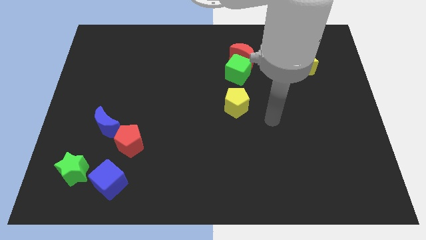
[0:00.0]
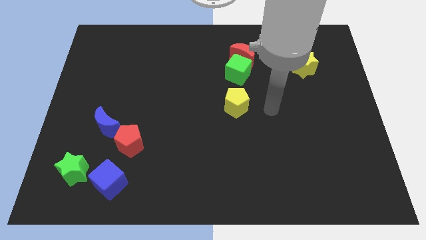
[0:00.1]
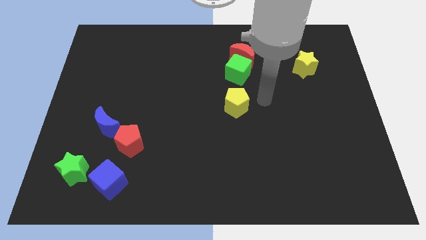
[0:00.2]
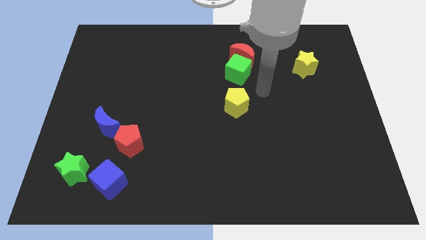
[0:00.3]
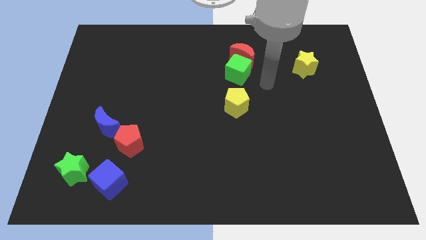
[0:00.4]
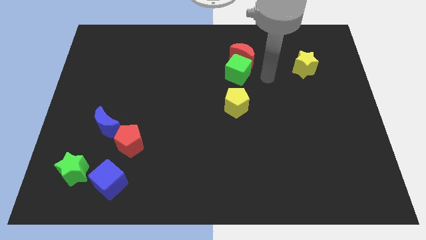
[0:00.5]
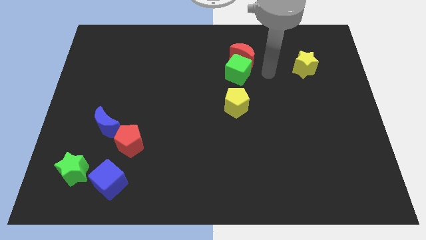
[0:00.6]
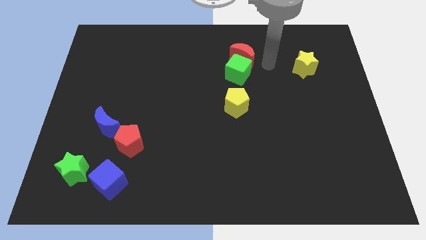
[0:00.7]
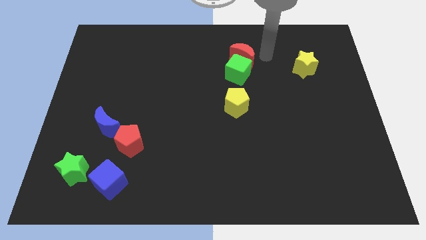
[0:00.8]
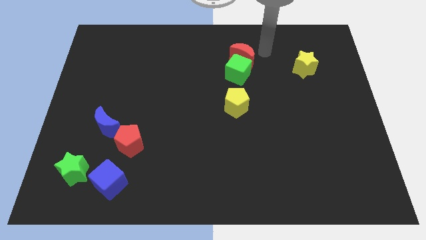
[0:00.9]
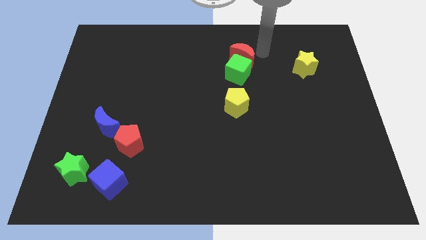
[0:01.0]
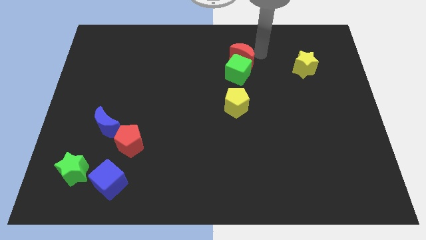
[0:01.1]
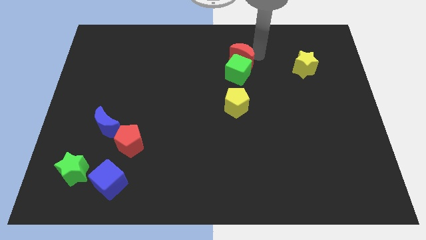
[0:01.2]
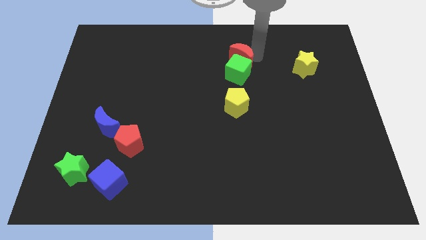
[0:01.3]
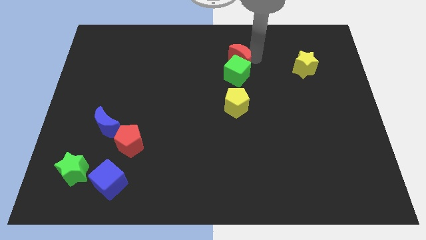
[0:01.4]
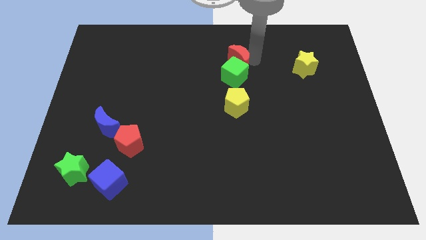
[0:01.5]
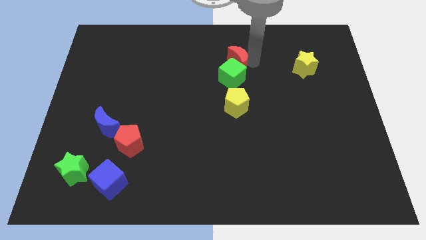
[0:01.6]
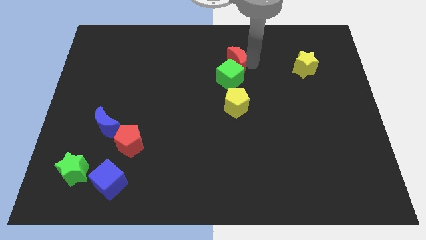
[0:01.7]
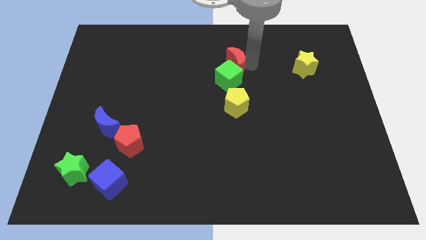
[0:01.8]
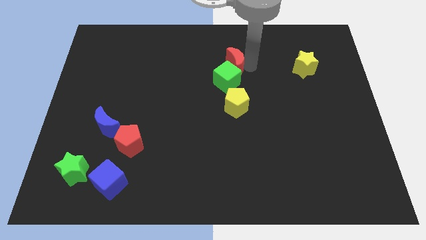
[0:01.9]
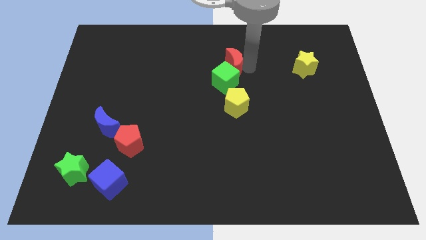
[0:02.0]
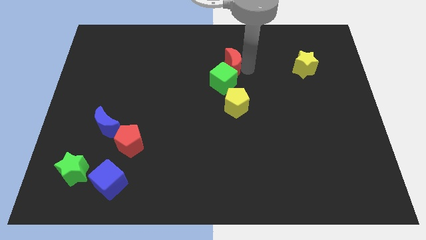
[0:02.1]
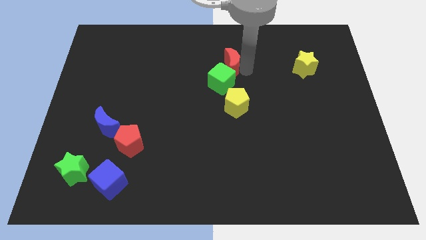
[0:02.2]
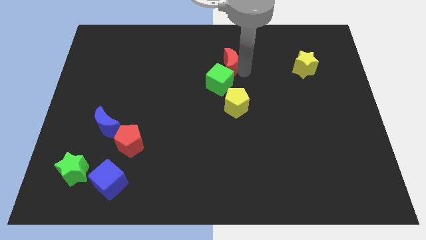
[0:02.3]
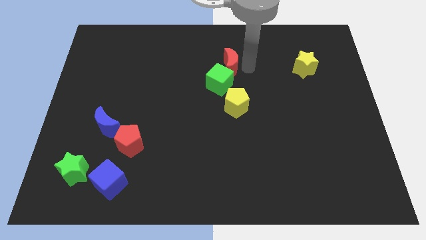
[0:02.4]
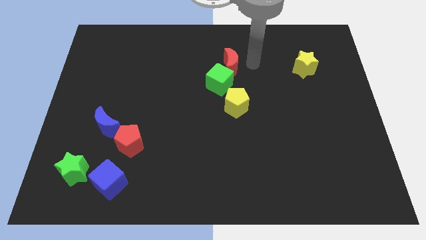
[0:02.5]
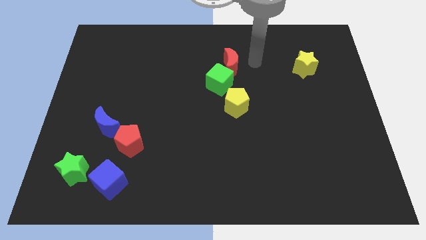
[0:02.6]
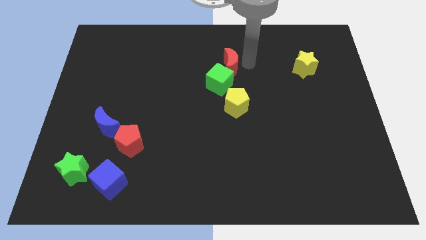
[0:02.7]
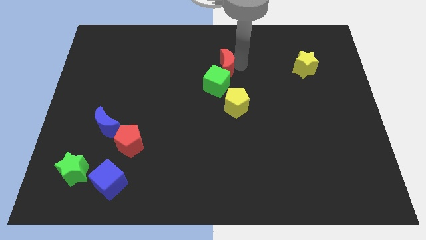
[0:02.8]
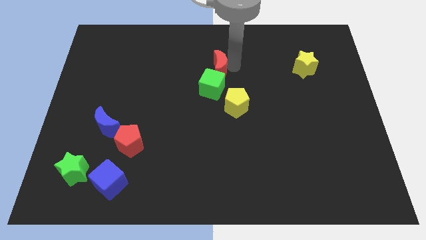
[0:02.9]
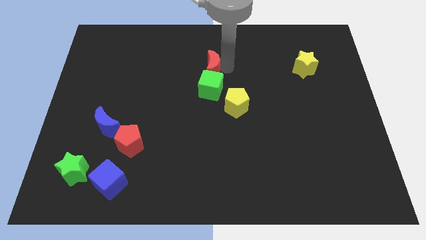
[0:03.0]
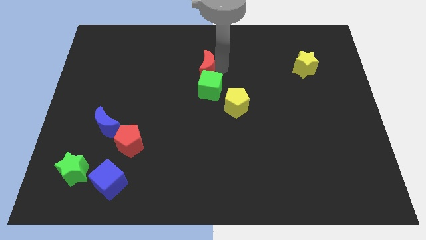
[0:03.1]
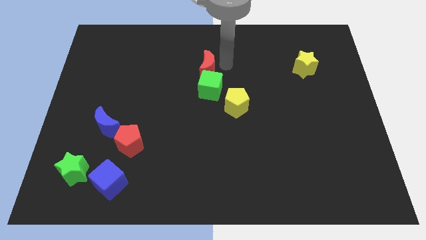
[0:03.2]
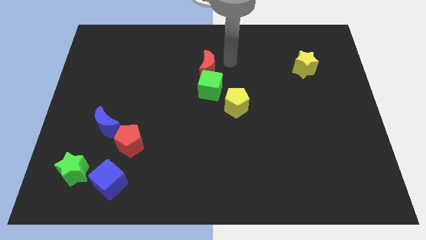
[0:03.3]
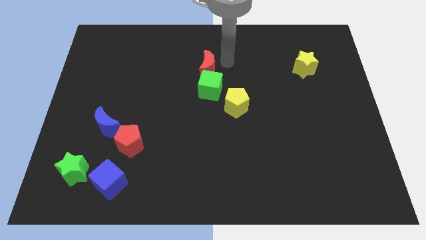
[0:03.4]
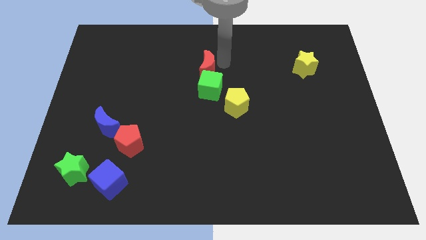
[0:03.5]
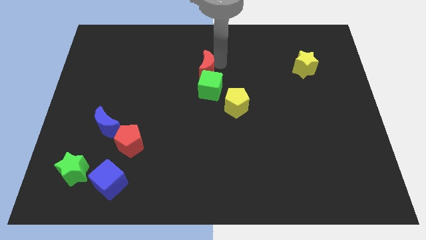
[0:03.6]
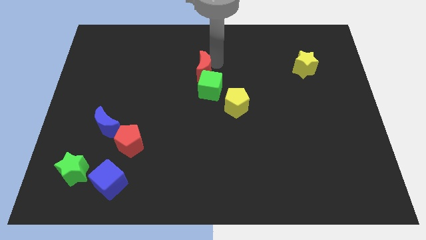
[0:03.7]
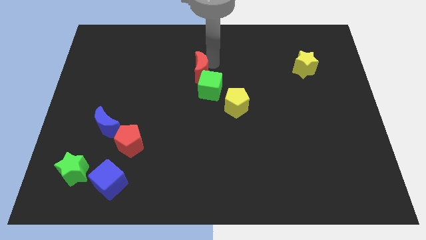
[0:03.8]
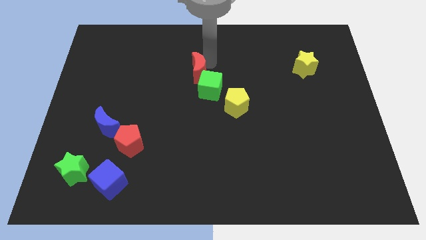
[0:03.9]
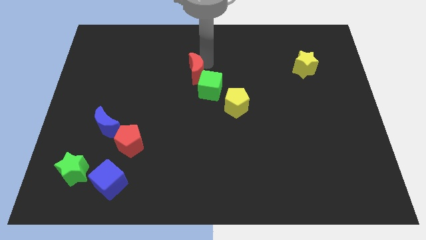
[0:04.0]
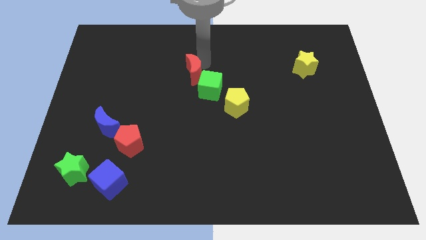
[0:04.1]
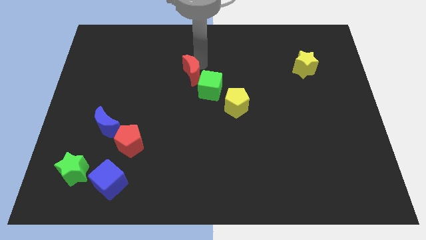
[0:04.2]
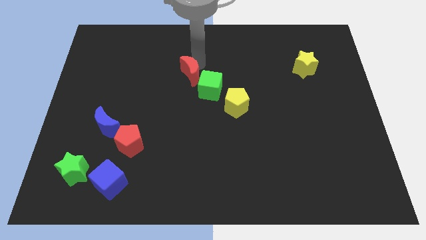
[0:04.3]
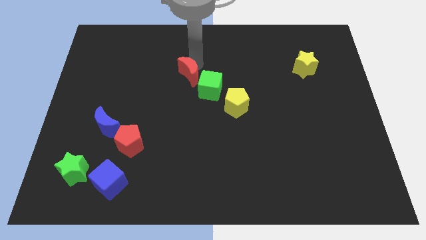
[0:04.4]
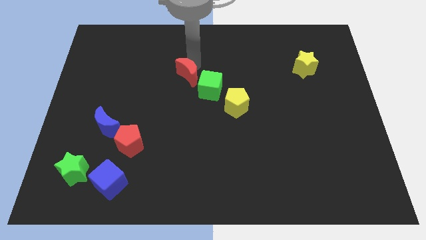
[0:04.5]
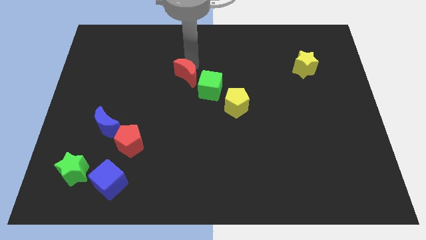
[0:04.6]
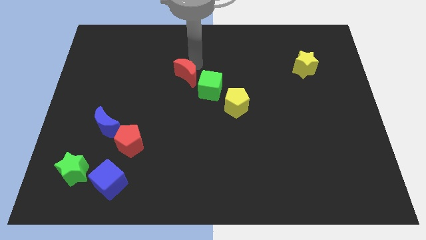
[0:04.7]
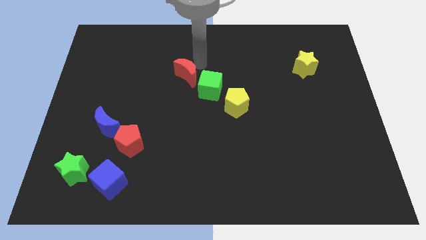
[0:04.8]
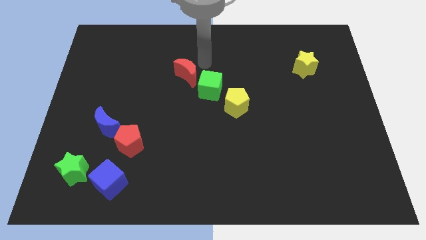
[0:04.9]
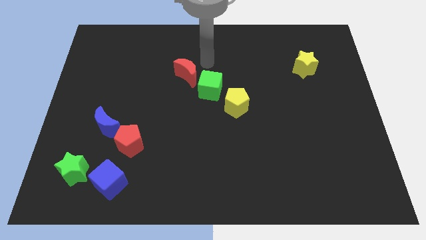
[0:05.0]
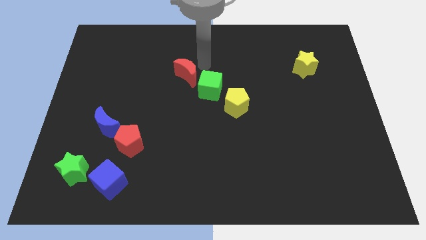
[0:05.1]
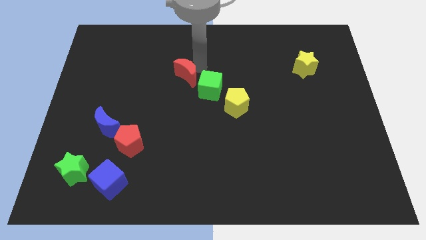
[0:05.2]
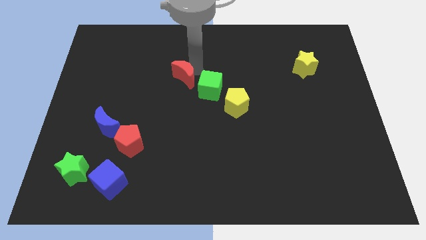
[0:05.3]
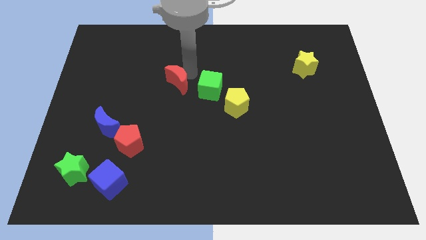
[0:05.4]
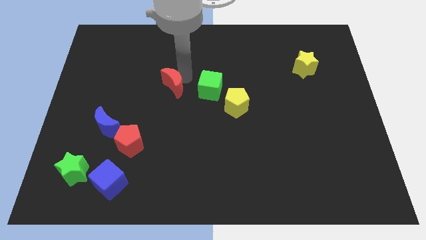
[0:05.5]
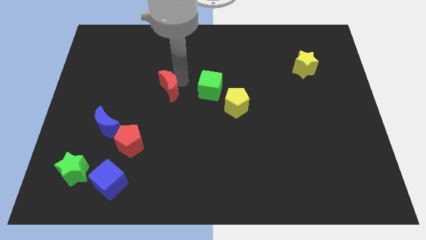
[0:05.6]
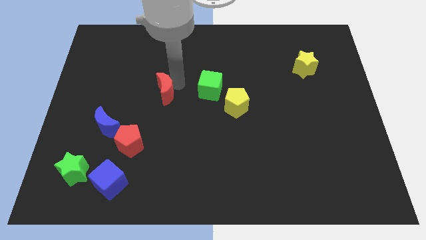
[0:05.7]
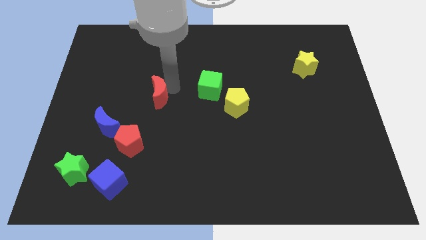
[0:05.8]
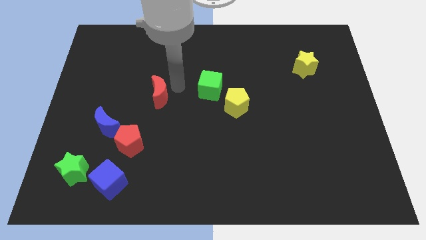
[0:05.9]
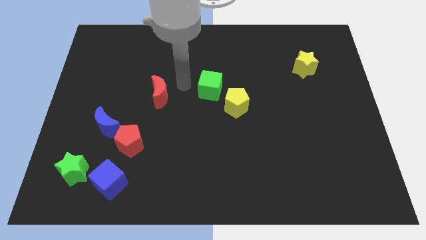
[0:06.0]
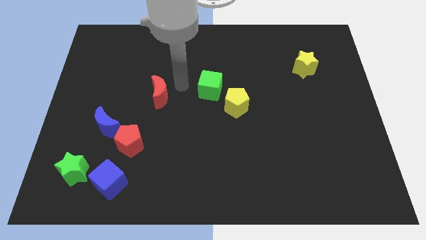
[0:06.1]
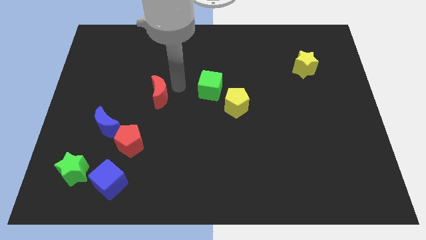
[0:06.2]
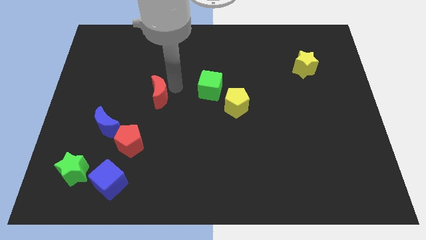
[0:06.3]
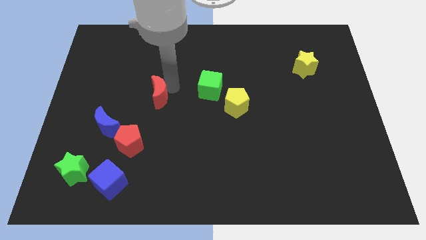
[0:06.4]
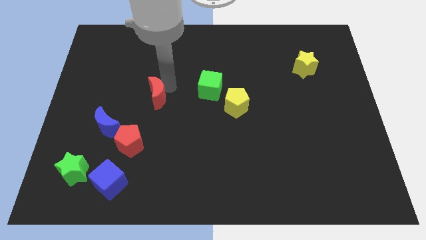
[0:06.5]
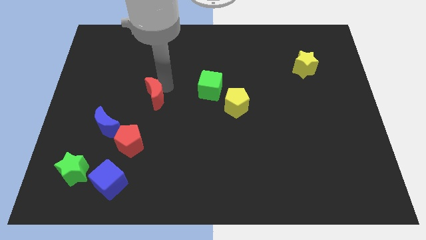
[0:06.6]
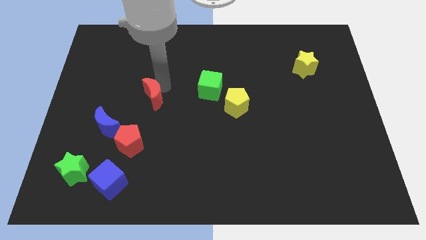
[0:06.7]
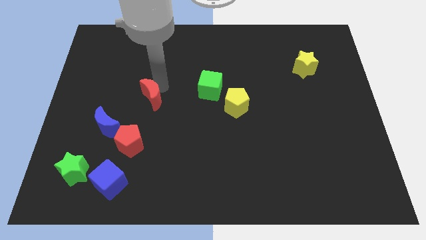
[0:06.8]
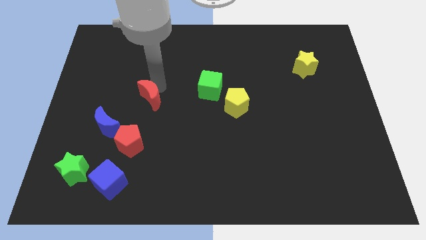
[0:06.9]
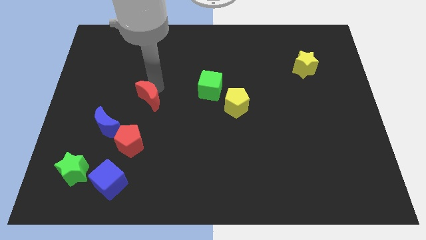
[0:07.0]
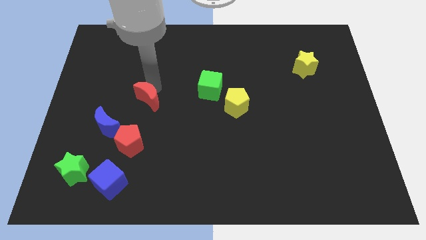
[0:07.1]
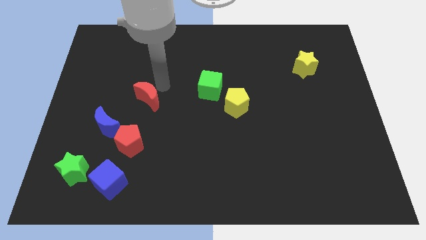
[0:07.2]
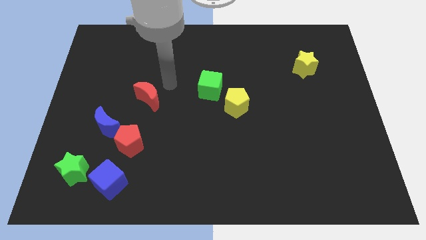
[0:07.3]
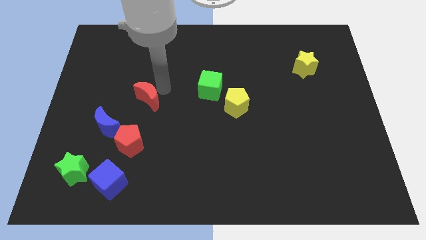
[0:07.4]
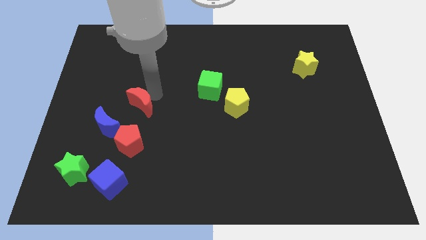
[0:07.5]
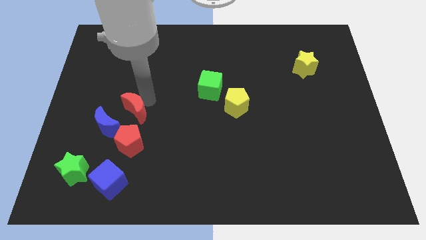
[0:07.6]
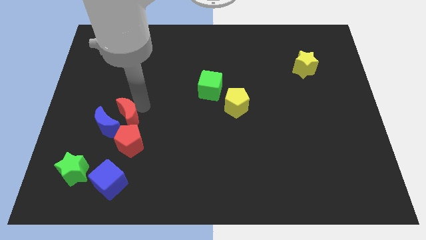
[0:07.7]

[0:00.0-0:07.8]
put the red moon close to the blue moon
